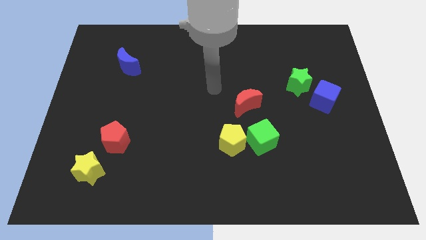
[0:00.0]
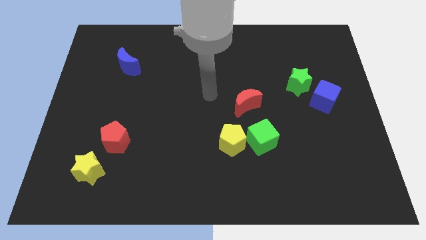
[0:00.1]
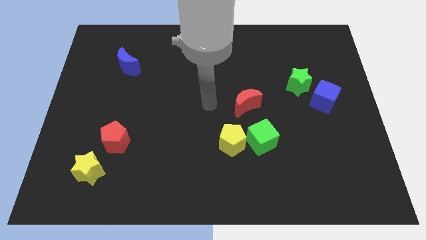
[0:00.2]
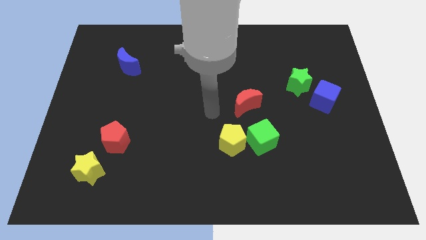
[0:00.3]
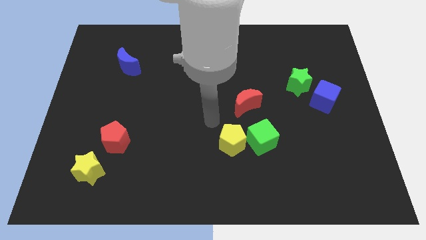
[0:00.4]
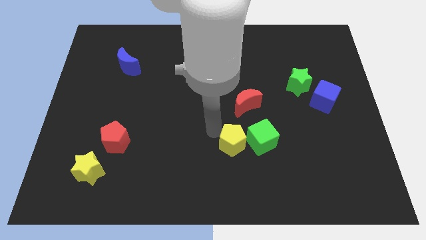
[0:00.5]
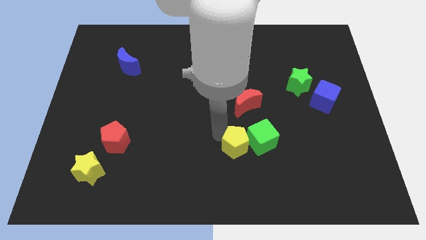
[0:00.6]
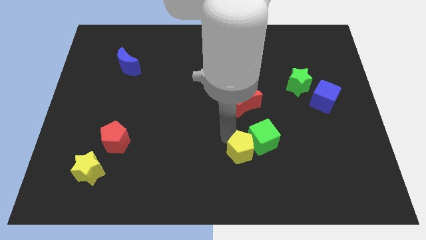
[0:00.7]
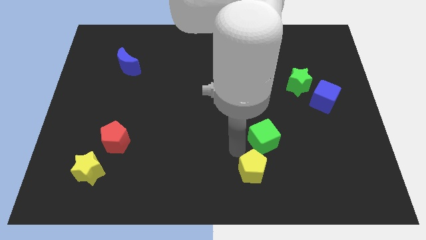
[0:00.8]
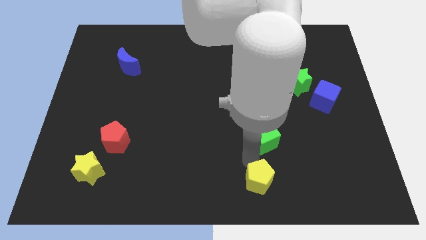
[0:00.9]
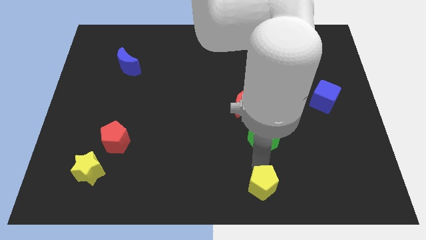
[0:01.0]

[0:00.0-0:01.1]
move the green cube away from the yellow pentagon

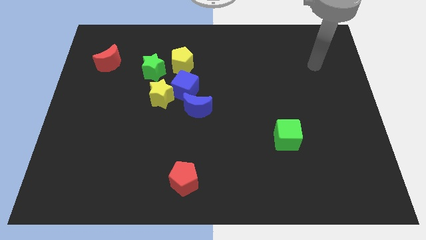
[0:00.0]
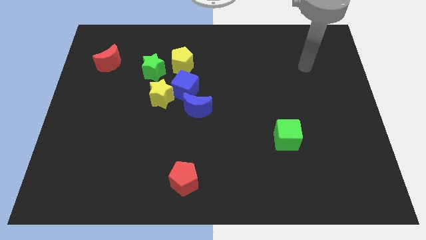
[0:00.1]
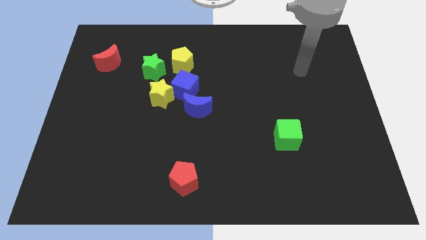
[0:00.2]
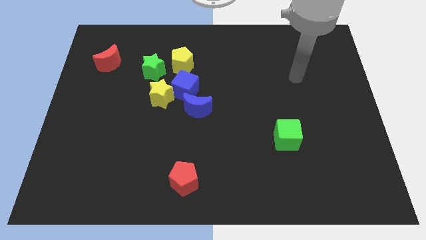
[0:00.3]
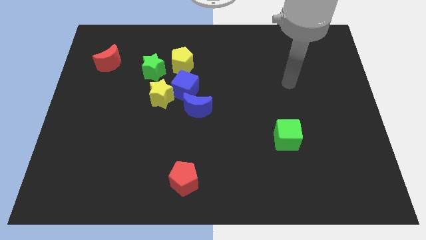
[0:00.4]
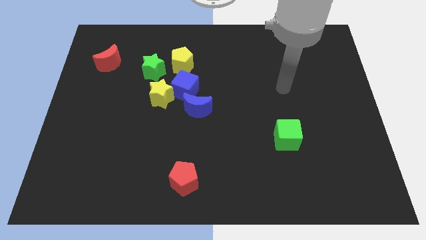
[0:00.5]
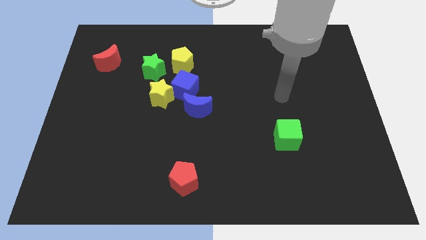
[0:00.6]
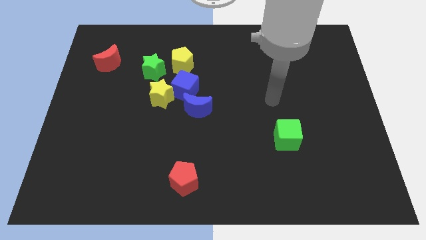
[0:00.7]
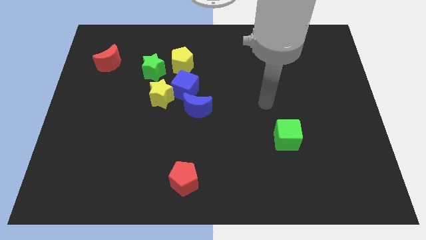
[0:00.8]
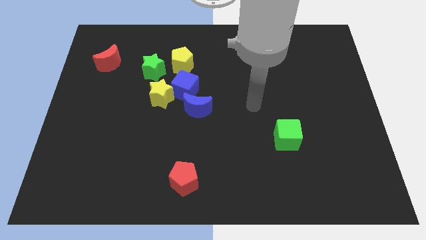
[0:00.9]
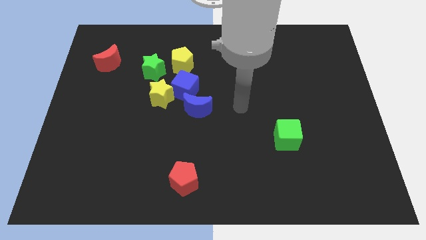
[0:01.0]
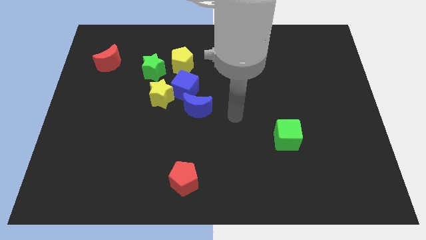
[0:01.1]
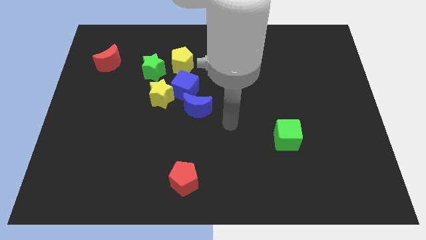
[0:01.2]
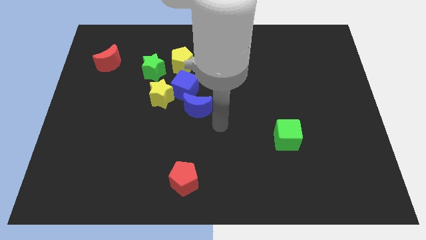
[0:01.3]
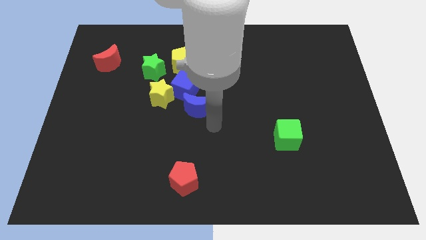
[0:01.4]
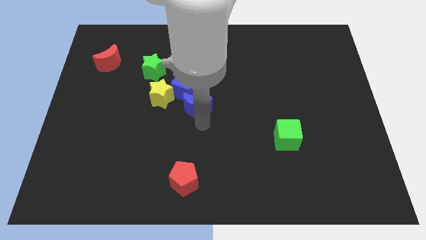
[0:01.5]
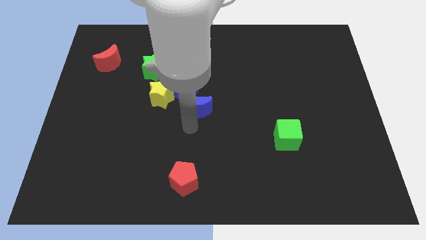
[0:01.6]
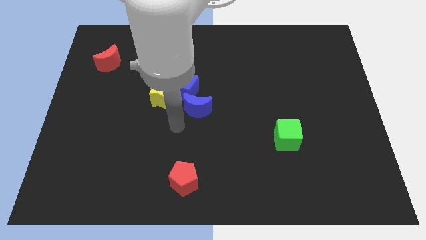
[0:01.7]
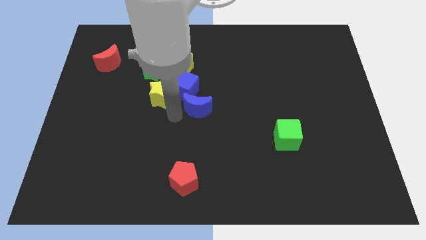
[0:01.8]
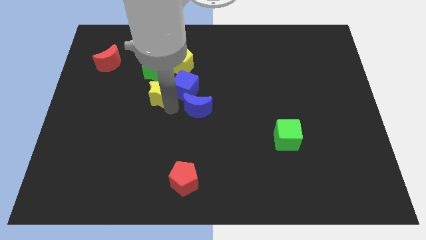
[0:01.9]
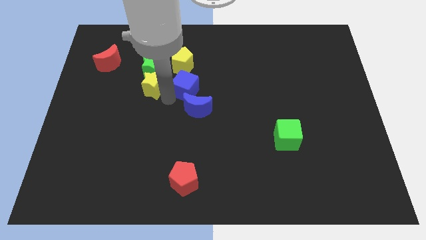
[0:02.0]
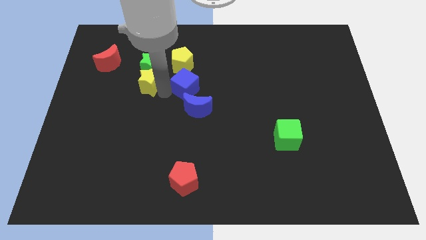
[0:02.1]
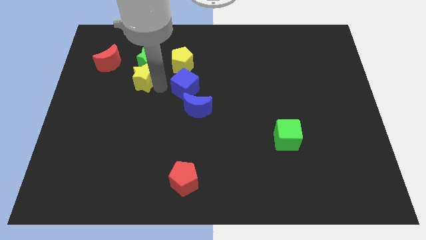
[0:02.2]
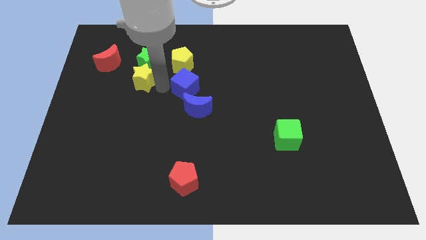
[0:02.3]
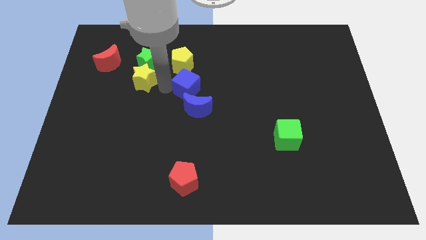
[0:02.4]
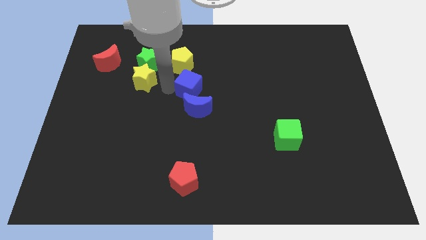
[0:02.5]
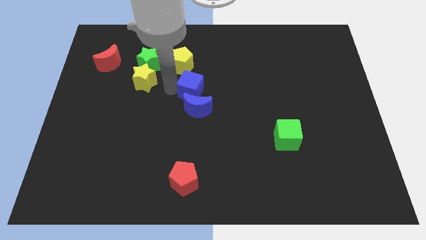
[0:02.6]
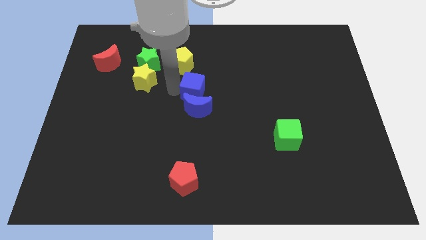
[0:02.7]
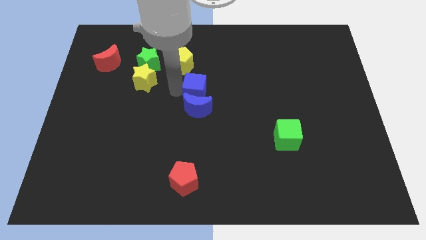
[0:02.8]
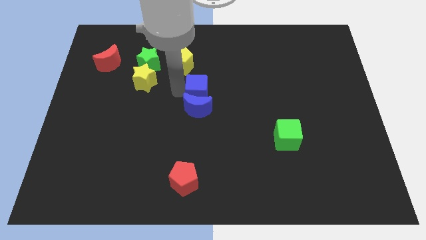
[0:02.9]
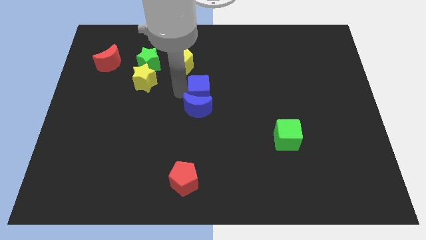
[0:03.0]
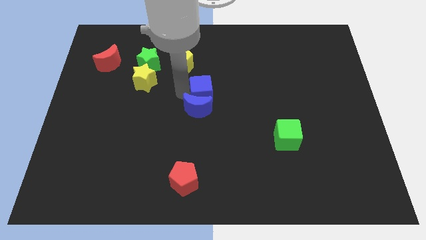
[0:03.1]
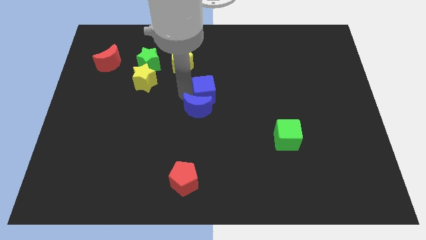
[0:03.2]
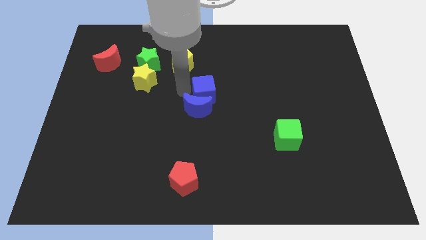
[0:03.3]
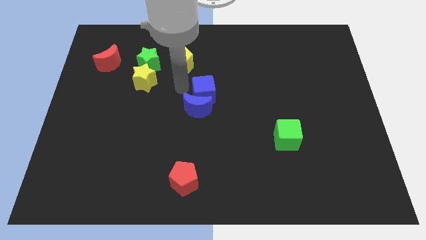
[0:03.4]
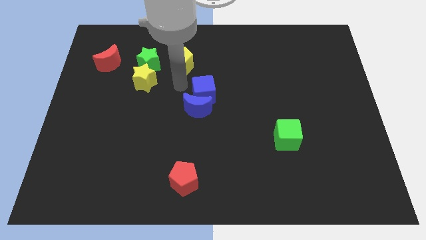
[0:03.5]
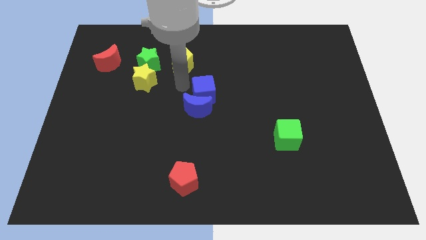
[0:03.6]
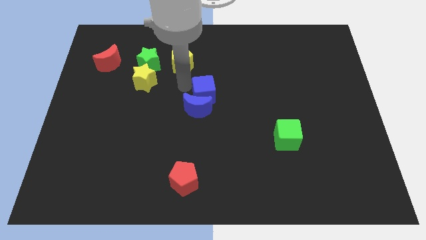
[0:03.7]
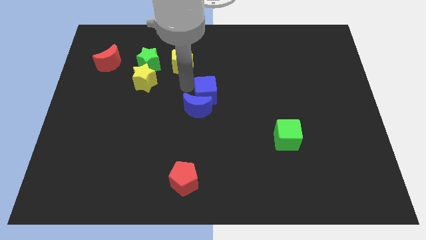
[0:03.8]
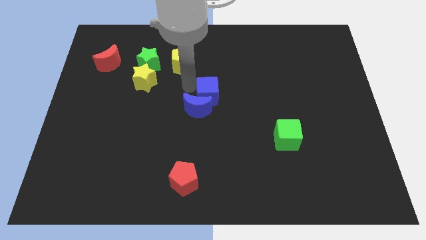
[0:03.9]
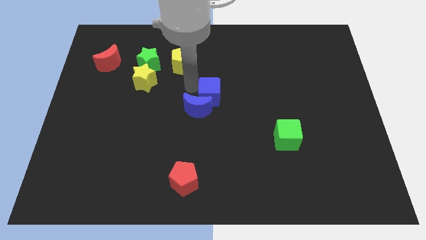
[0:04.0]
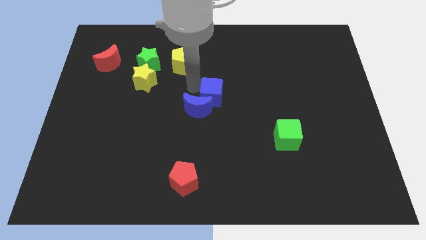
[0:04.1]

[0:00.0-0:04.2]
separate the blue cube from the clump

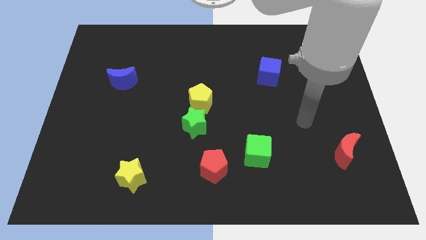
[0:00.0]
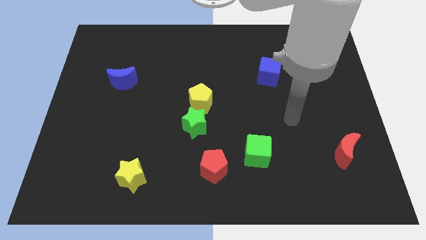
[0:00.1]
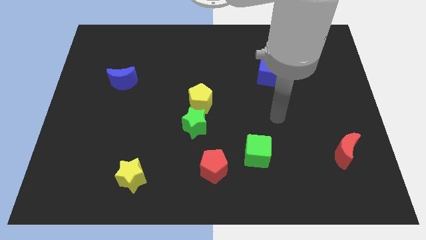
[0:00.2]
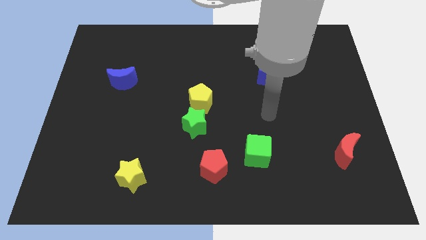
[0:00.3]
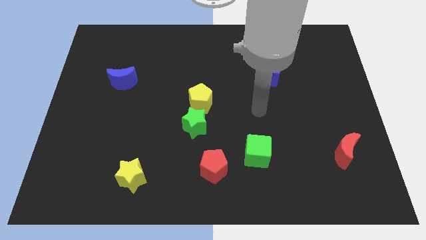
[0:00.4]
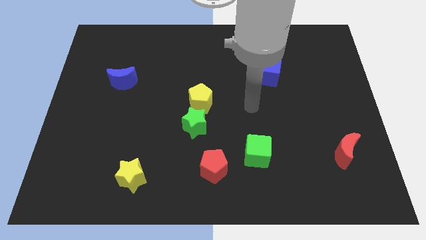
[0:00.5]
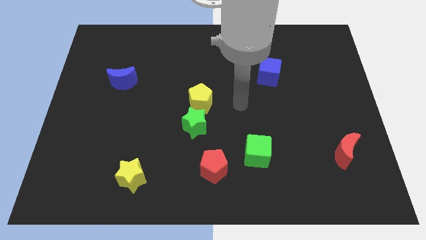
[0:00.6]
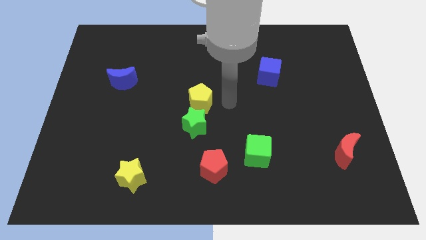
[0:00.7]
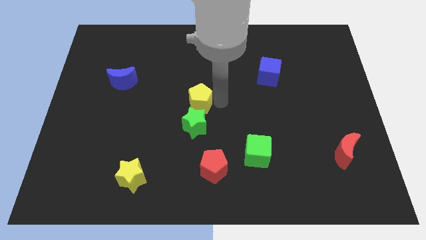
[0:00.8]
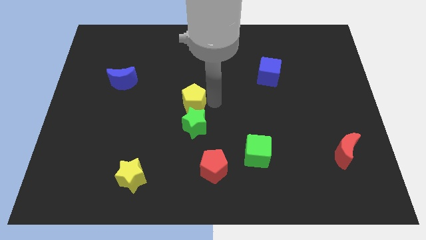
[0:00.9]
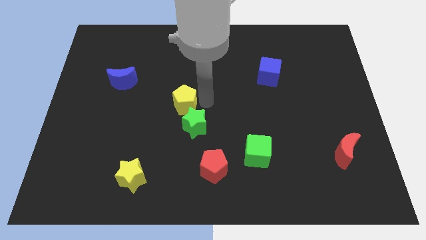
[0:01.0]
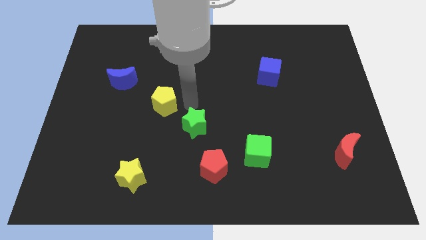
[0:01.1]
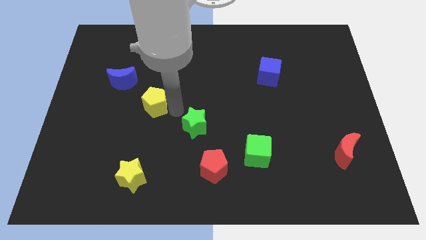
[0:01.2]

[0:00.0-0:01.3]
separate the green star from the yellow pentagon

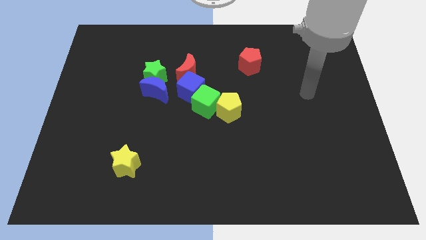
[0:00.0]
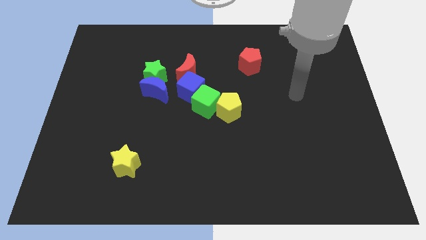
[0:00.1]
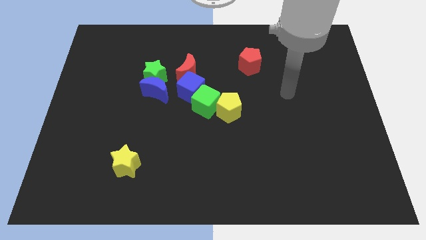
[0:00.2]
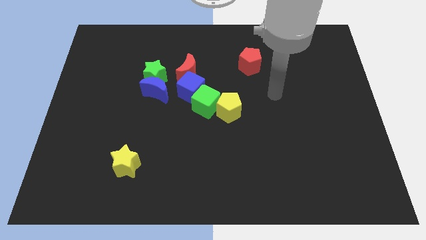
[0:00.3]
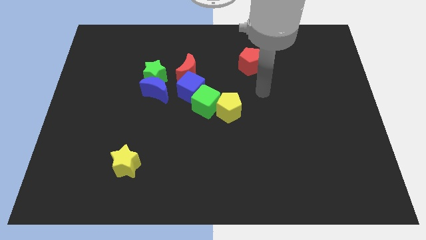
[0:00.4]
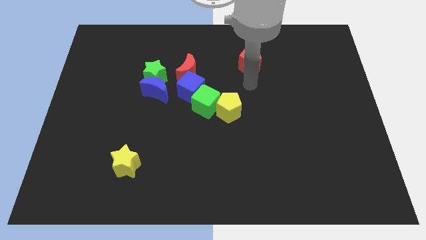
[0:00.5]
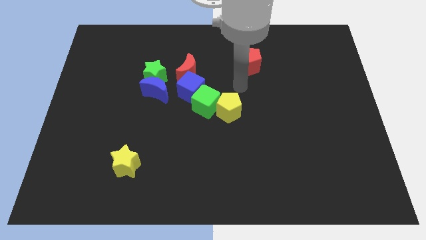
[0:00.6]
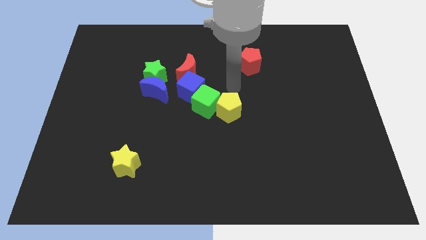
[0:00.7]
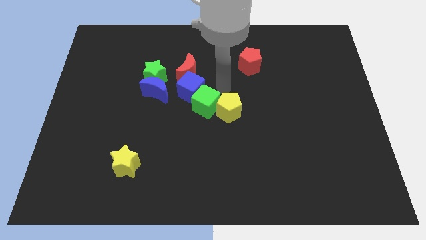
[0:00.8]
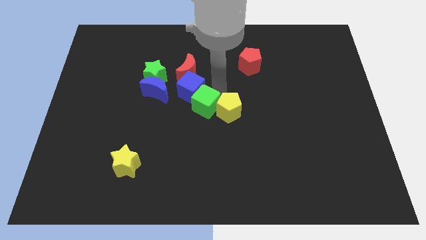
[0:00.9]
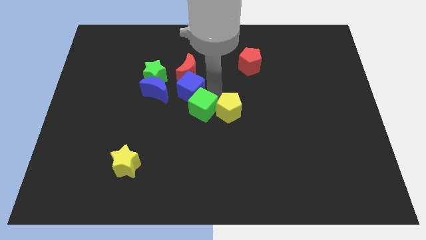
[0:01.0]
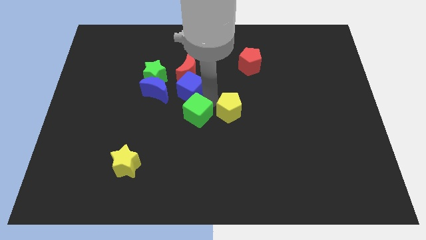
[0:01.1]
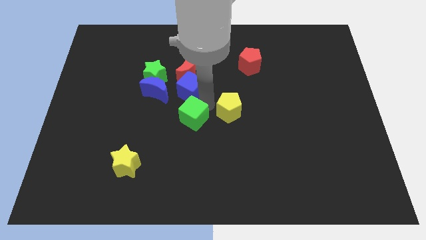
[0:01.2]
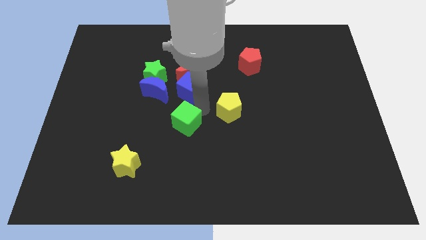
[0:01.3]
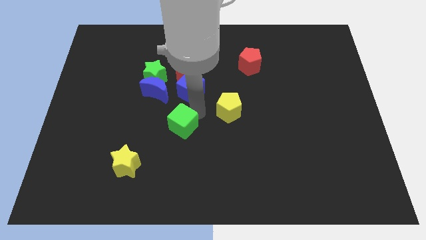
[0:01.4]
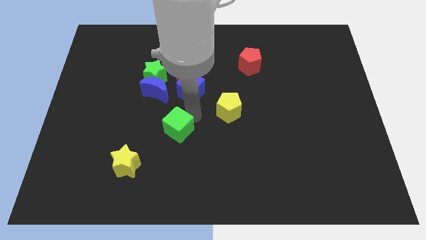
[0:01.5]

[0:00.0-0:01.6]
separate the green cube from the blue cube and yellow pentagon

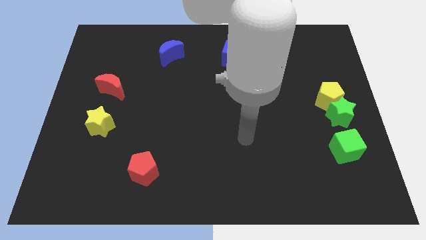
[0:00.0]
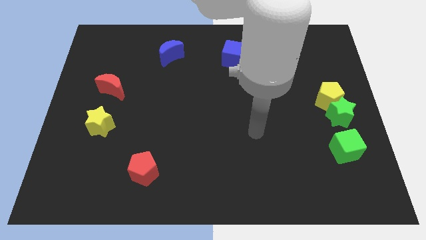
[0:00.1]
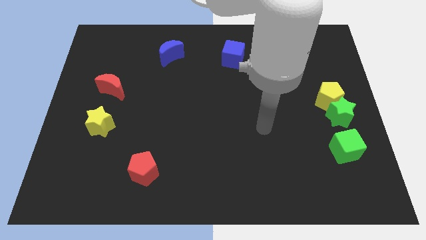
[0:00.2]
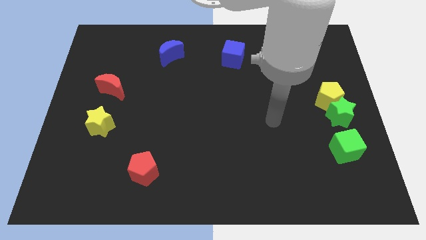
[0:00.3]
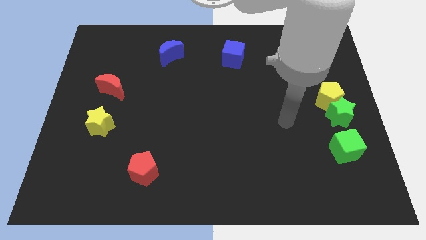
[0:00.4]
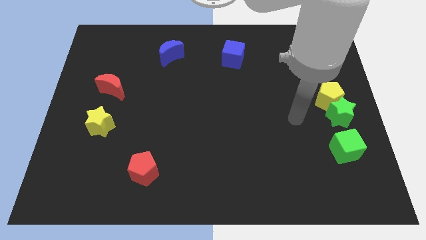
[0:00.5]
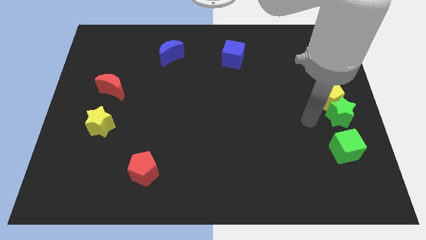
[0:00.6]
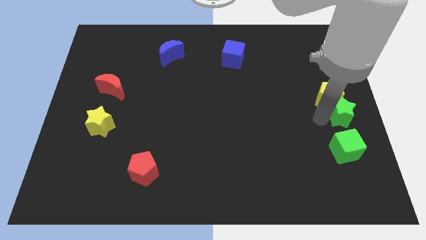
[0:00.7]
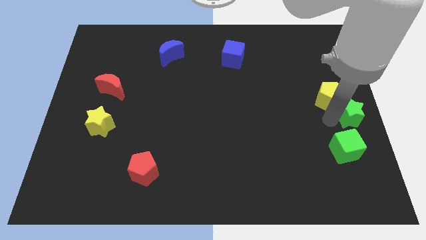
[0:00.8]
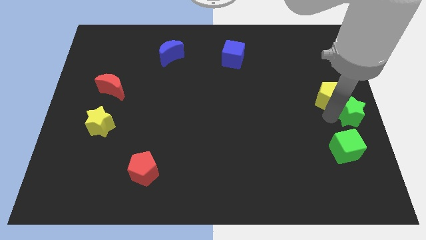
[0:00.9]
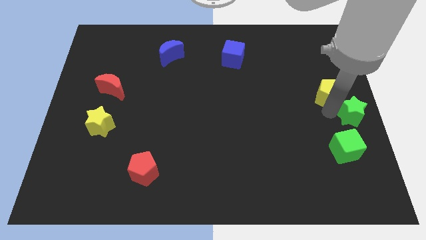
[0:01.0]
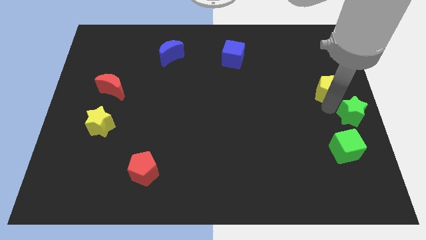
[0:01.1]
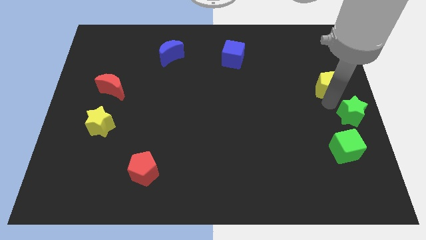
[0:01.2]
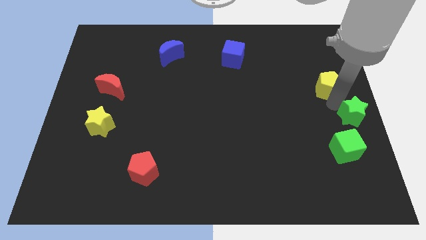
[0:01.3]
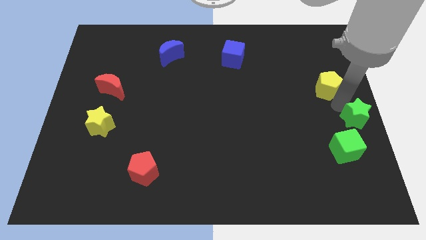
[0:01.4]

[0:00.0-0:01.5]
move the yellow pentagon away from the green star
